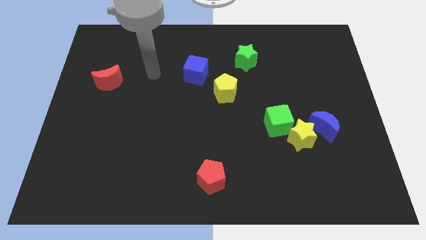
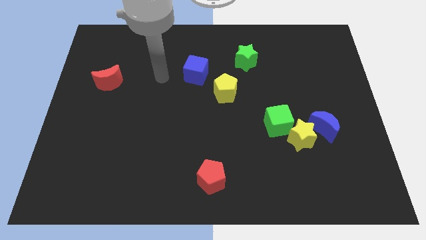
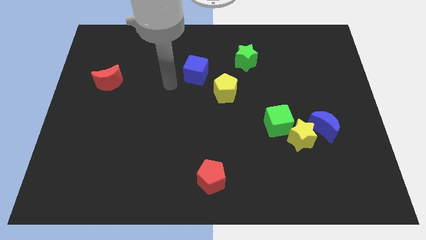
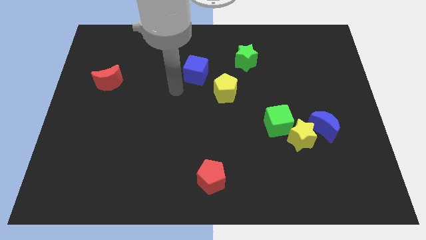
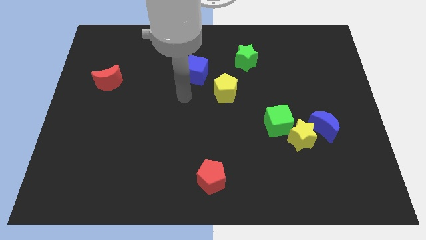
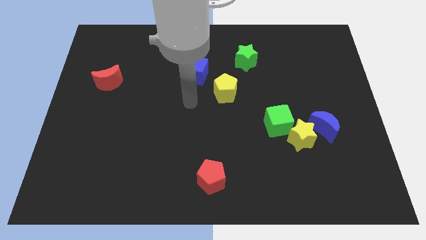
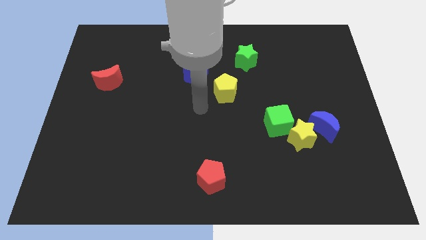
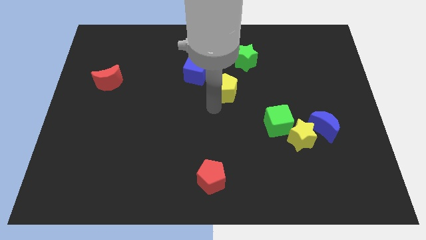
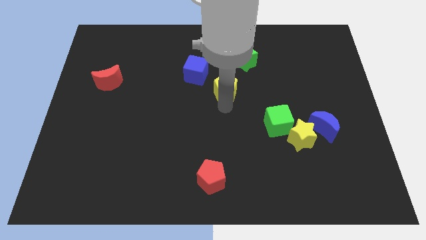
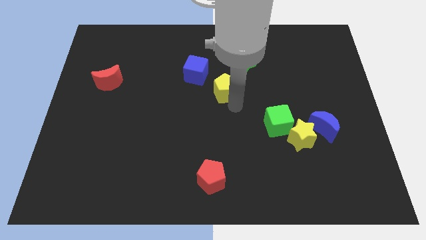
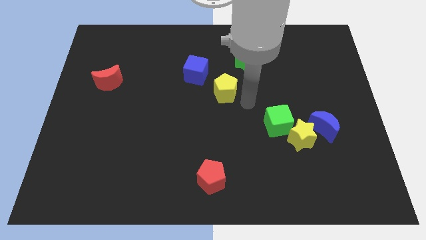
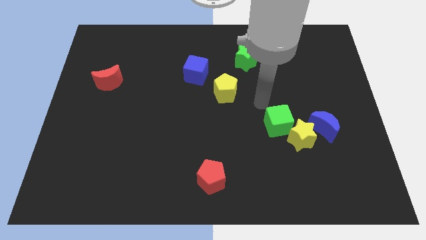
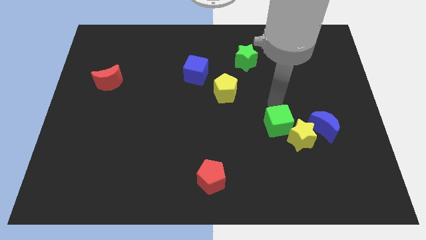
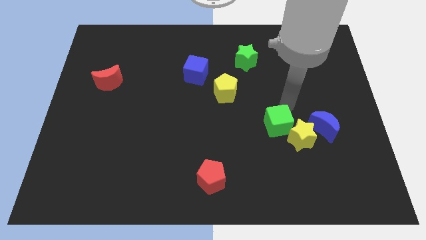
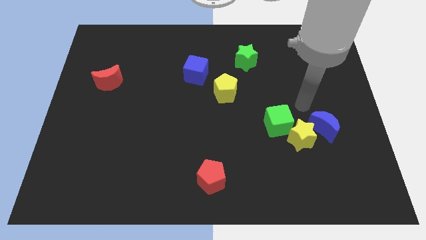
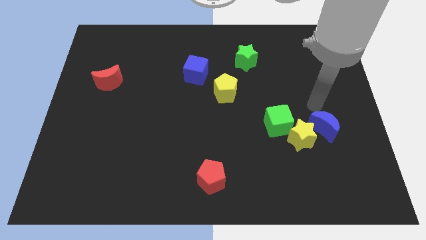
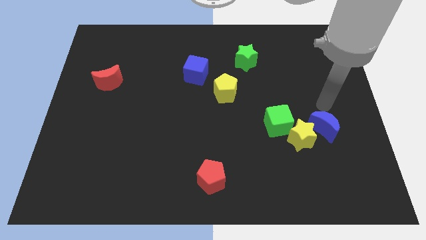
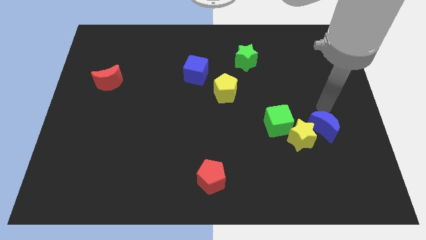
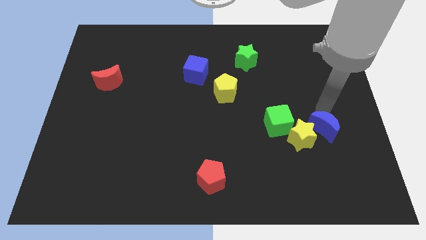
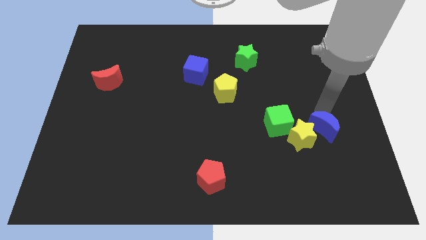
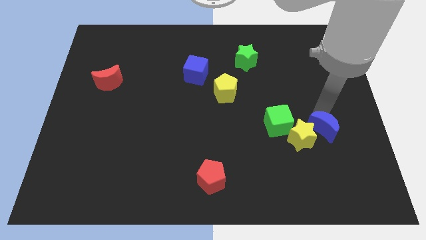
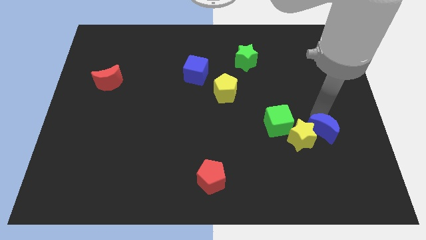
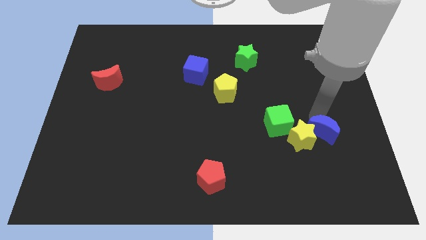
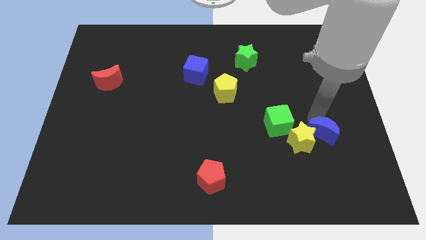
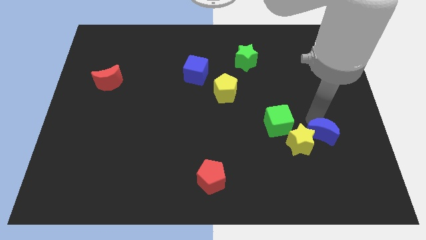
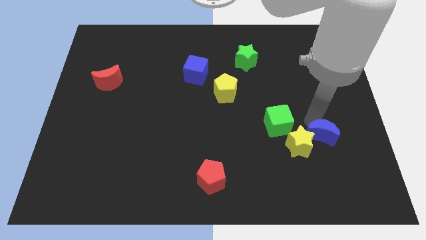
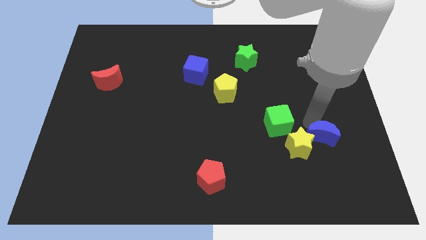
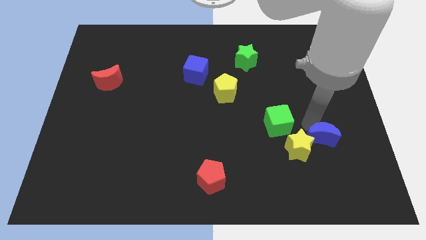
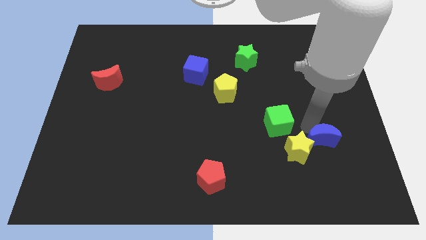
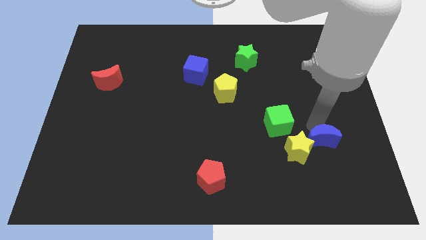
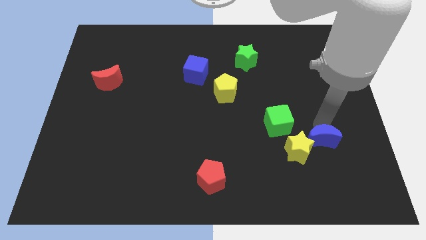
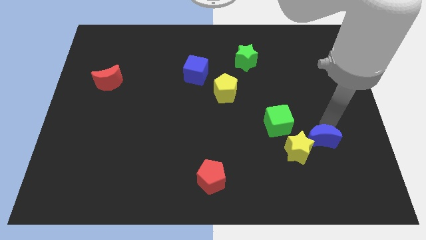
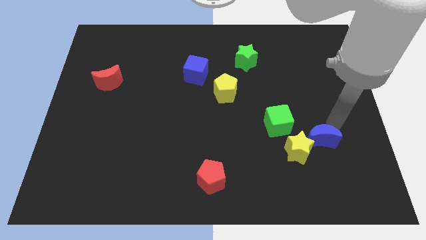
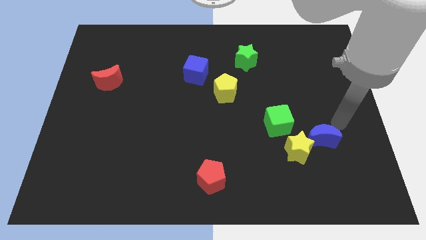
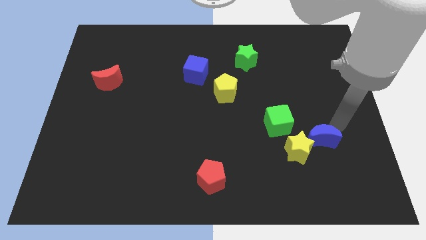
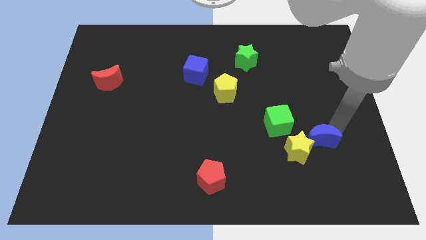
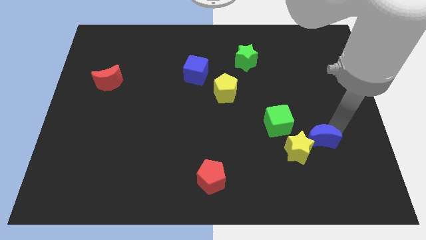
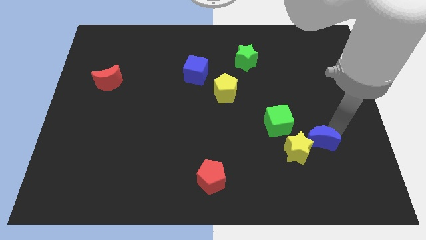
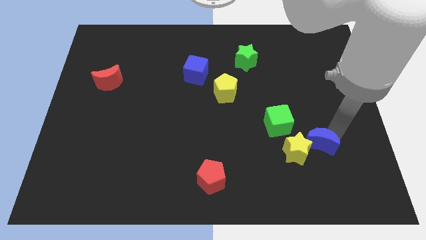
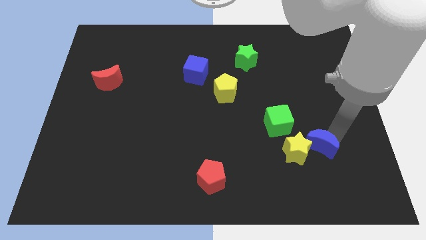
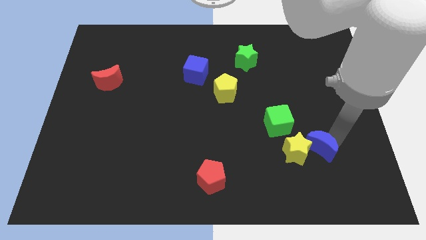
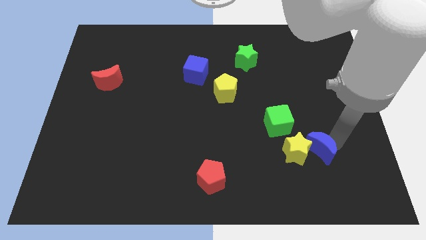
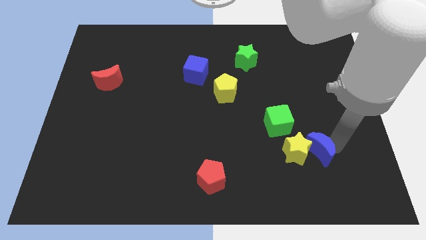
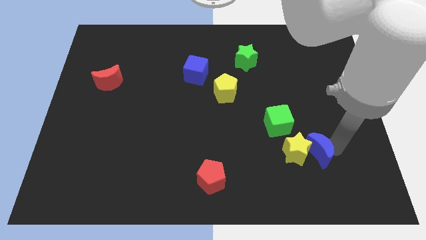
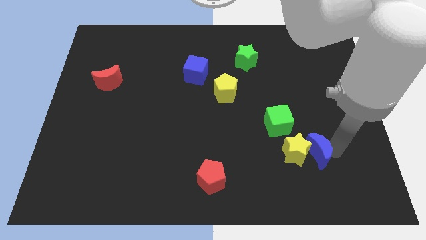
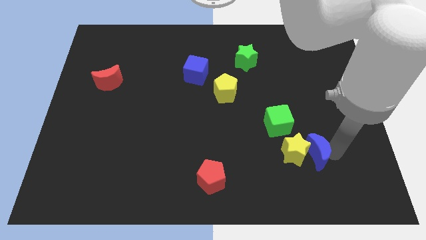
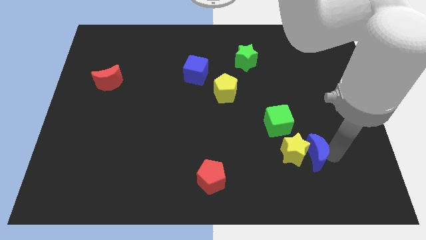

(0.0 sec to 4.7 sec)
slightly slide the blue moon downwards and left diagonally

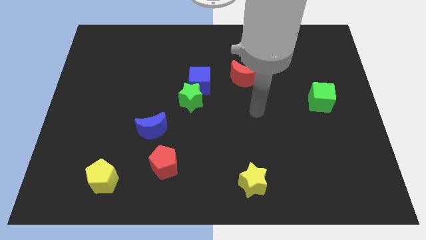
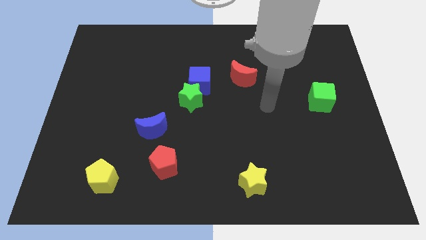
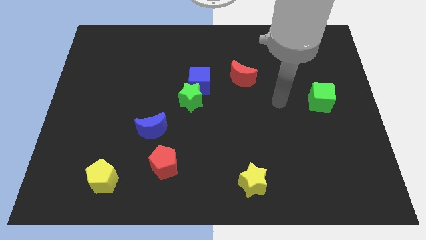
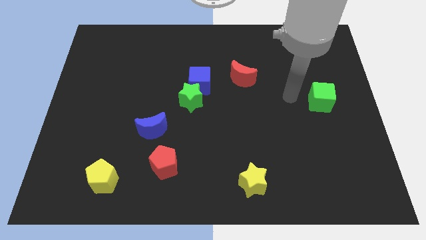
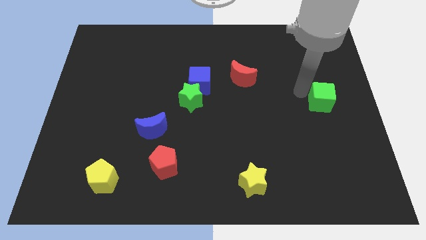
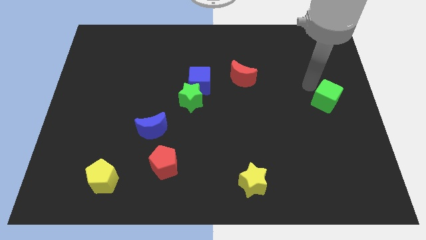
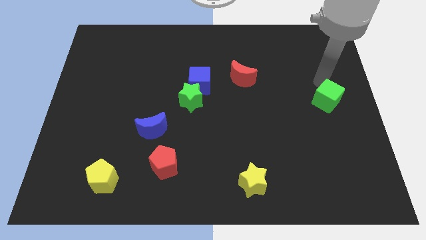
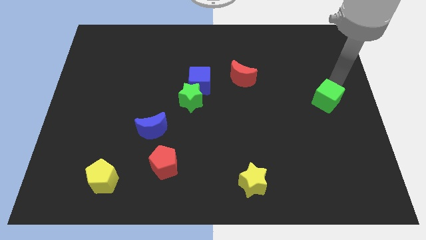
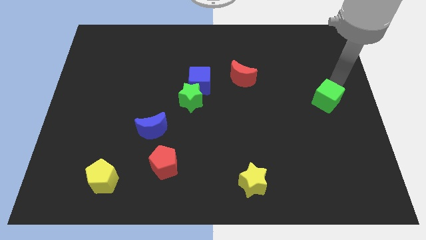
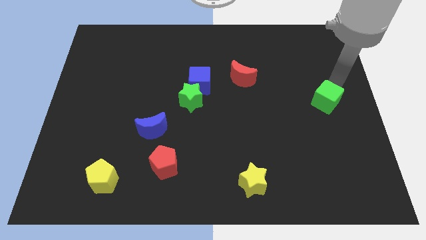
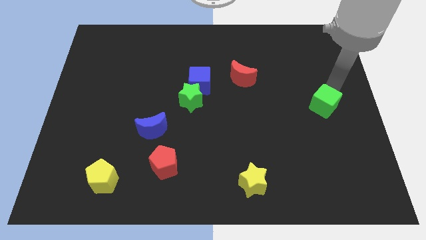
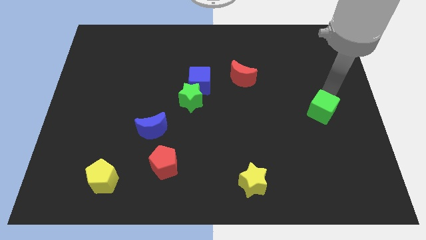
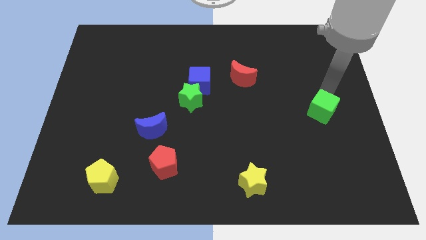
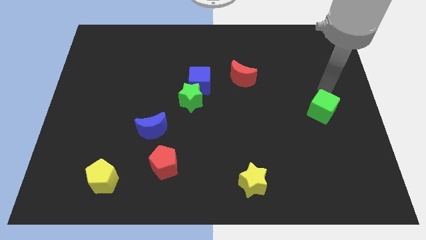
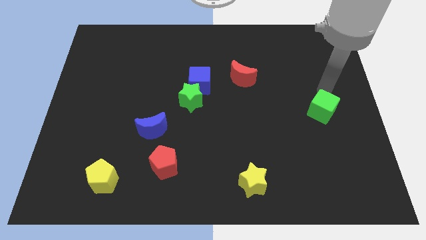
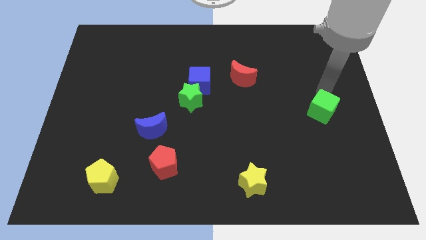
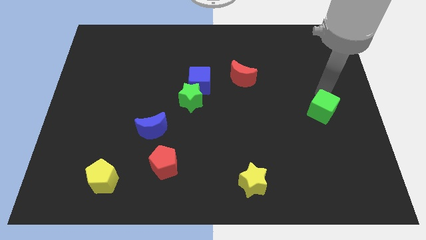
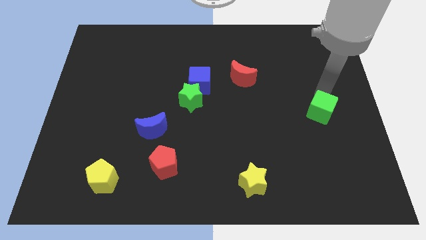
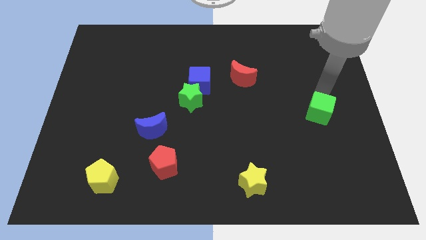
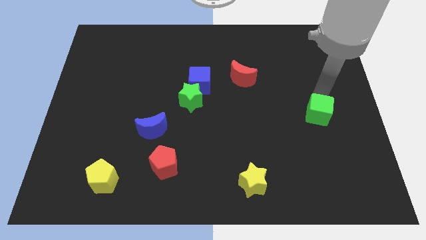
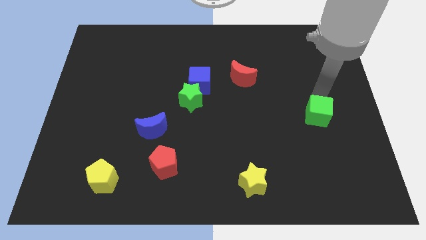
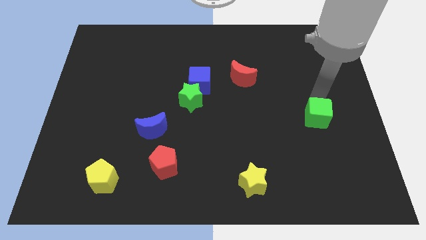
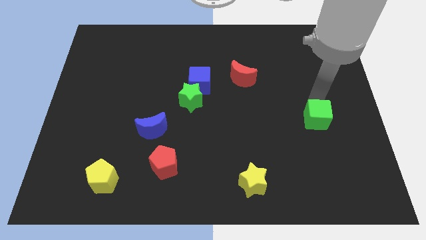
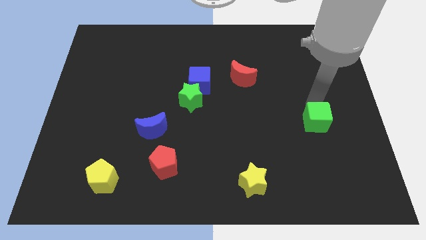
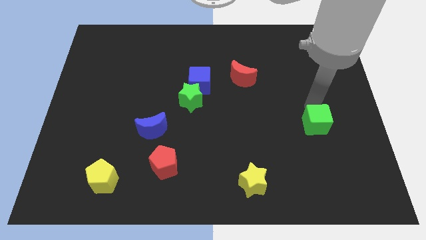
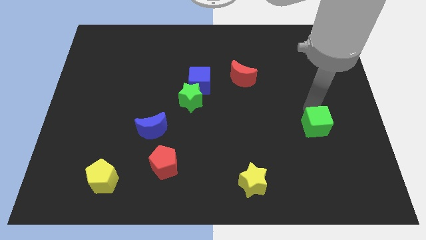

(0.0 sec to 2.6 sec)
move the green cube a little down

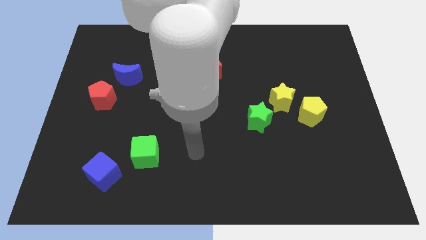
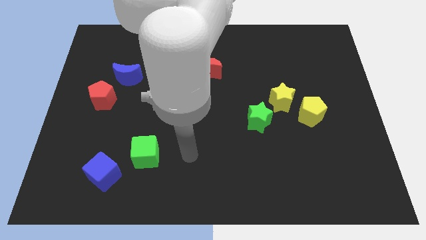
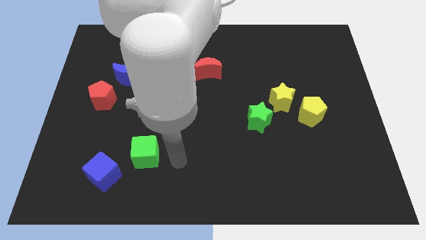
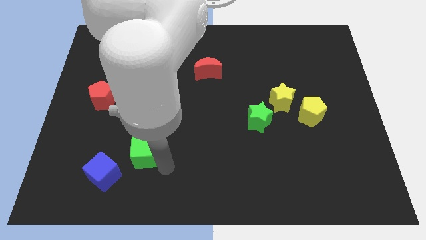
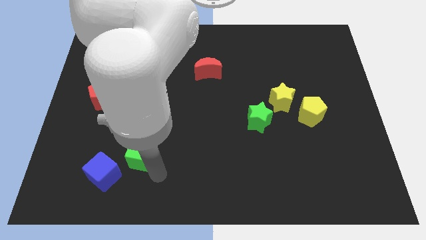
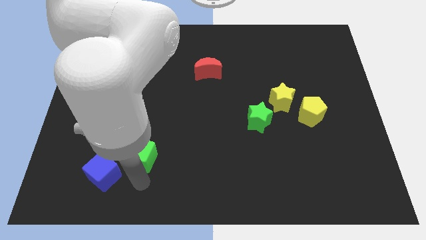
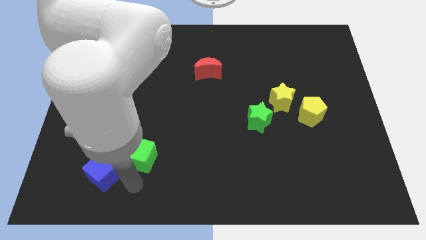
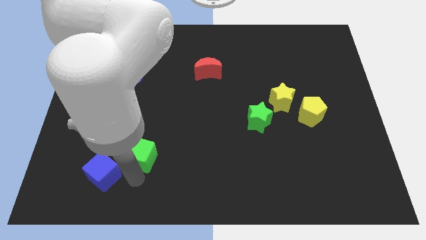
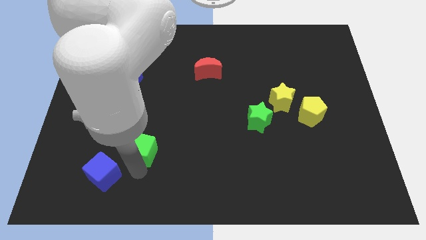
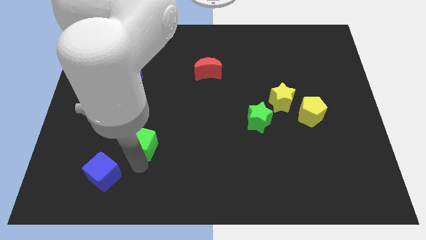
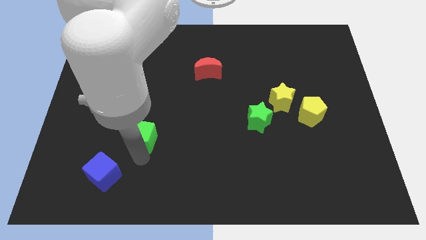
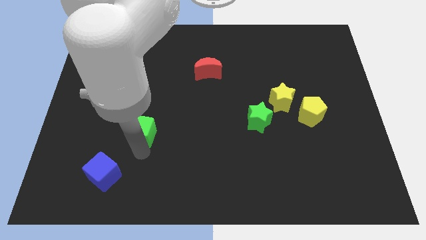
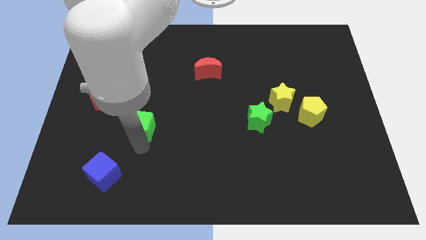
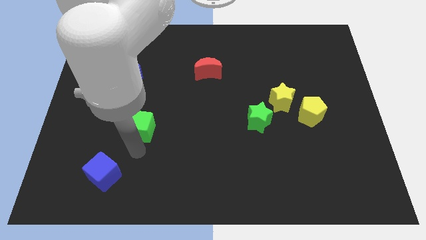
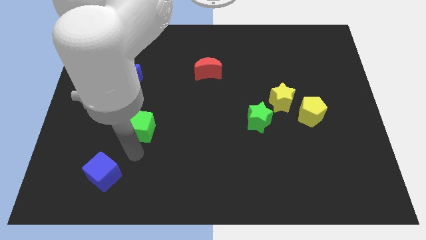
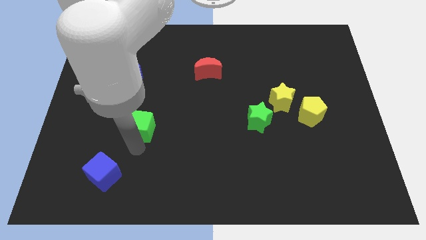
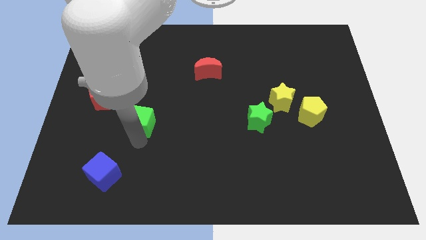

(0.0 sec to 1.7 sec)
move the green cube up a little
